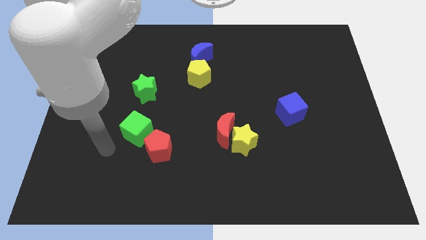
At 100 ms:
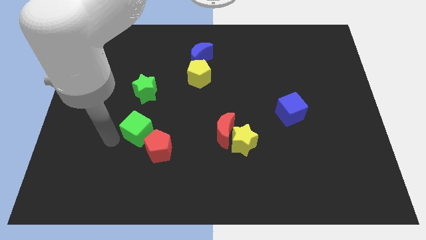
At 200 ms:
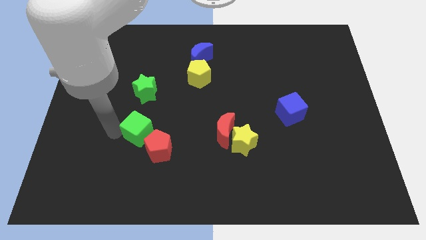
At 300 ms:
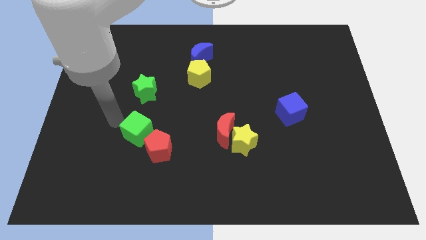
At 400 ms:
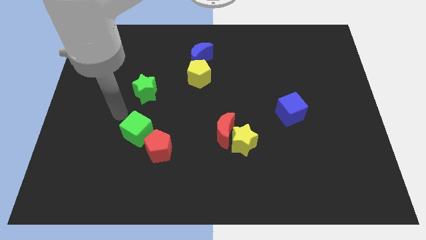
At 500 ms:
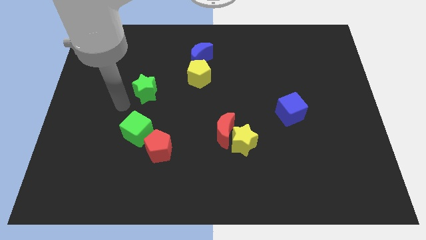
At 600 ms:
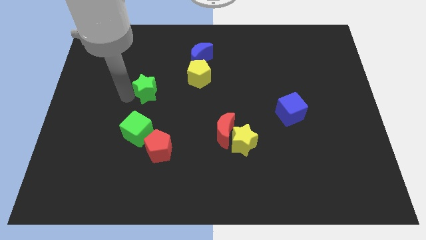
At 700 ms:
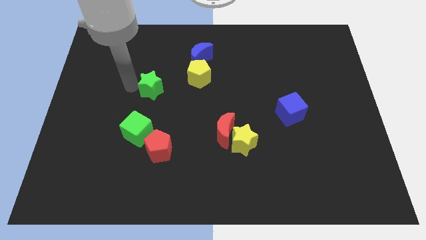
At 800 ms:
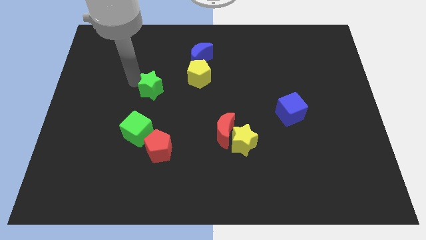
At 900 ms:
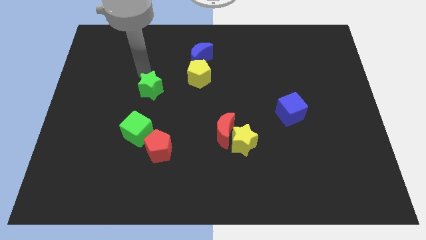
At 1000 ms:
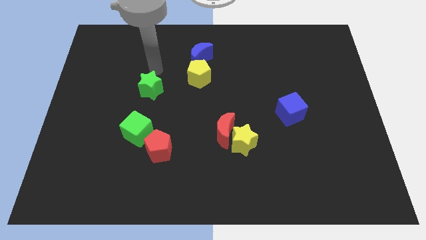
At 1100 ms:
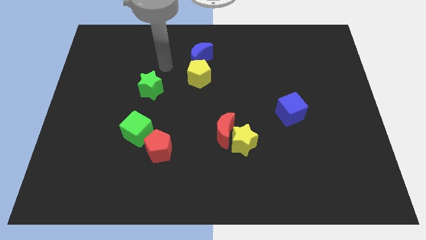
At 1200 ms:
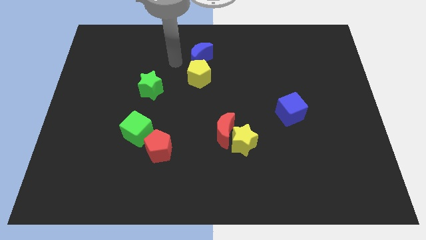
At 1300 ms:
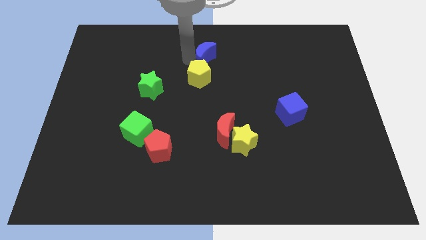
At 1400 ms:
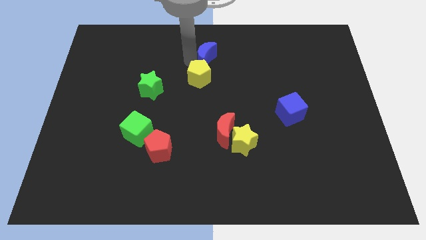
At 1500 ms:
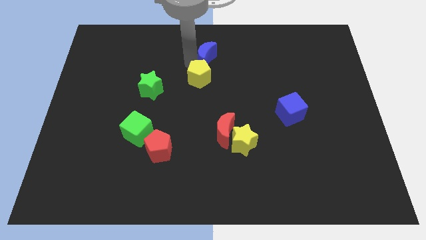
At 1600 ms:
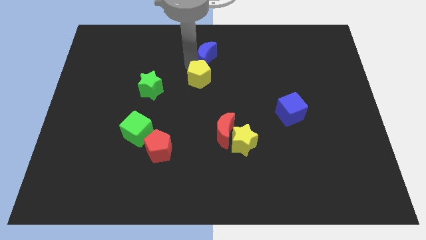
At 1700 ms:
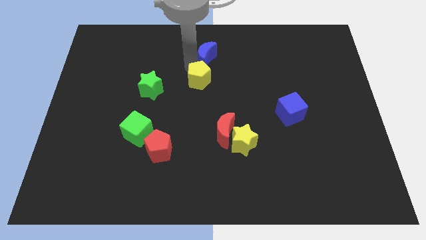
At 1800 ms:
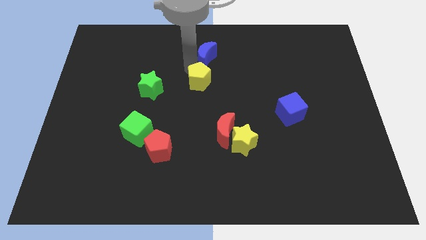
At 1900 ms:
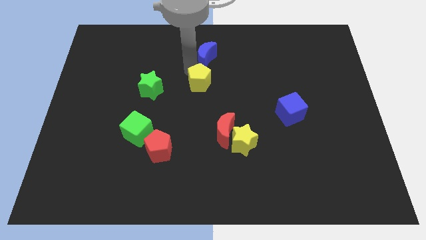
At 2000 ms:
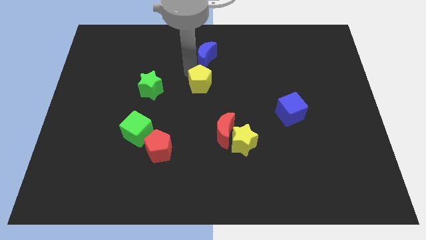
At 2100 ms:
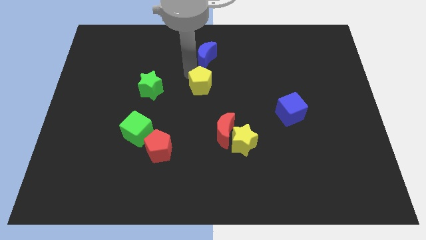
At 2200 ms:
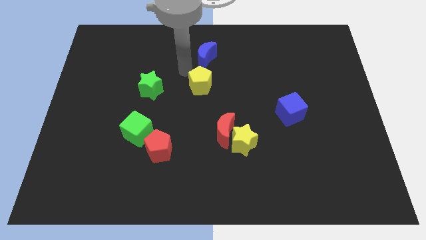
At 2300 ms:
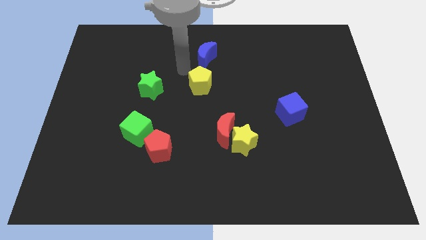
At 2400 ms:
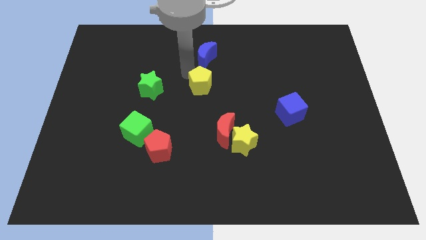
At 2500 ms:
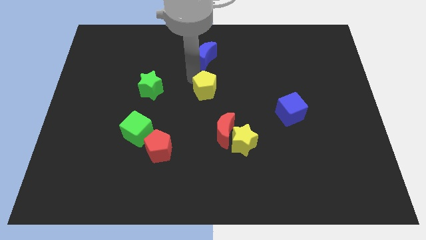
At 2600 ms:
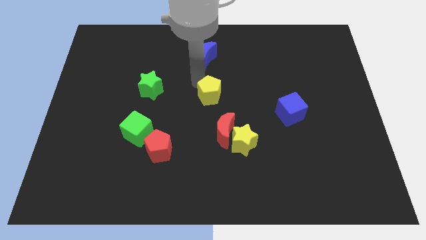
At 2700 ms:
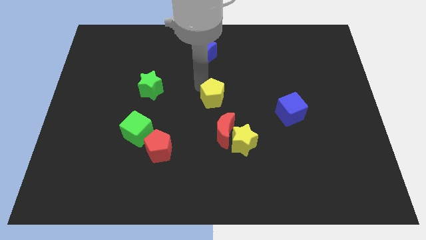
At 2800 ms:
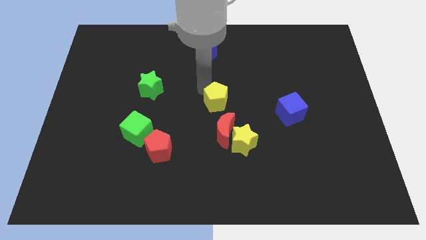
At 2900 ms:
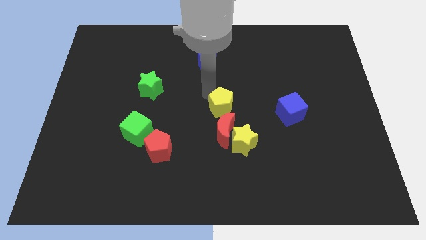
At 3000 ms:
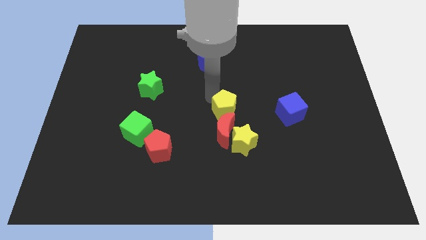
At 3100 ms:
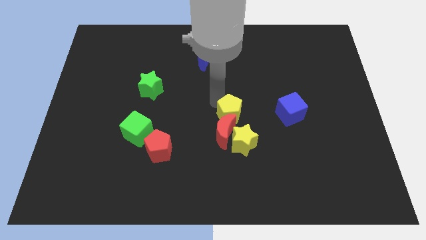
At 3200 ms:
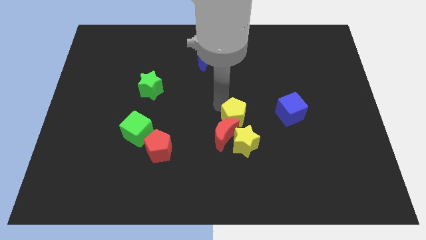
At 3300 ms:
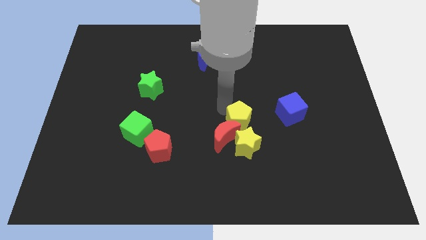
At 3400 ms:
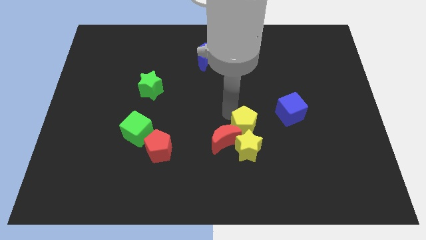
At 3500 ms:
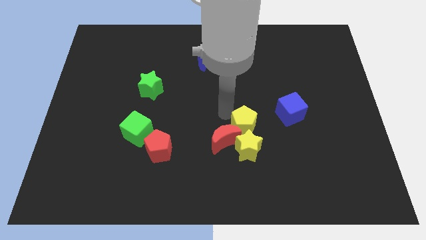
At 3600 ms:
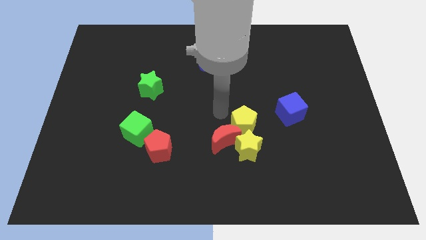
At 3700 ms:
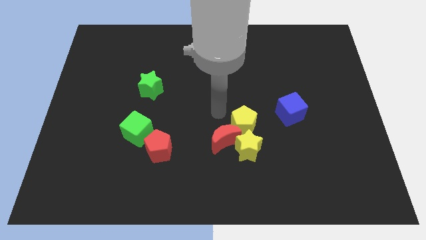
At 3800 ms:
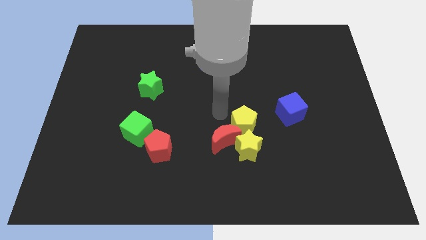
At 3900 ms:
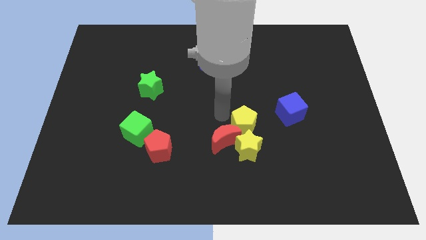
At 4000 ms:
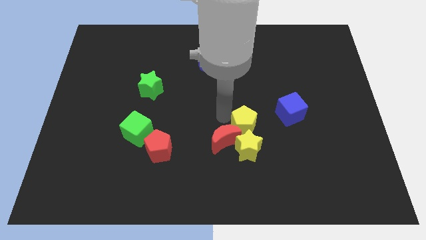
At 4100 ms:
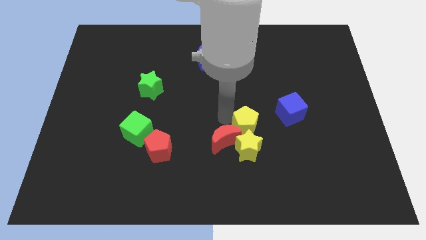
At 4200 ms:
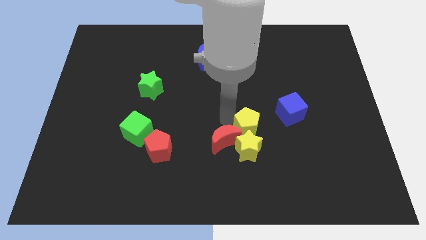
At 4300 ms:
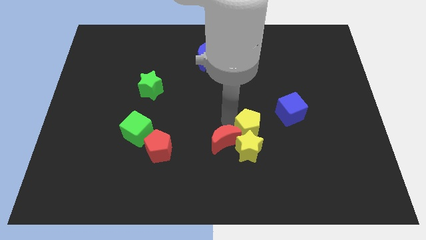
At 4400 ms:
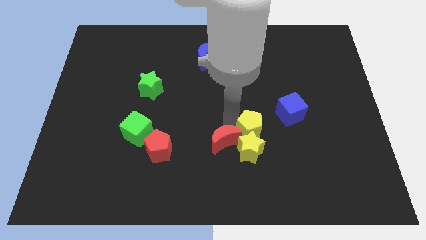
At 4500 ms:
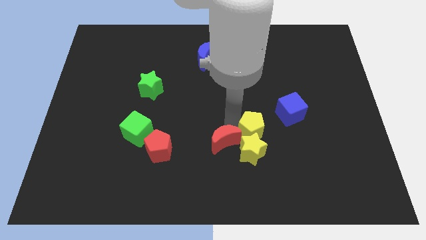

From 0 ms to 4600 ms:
push the yellow pentagon down and right

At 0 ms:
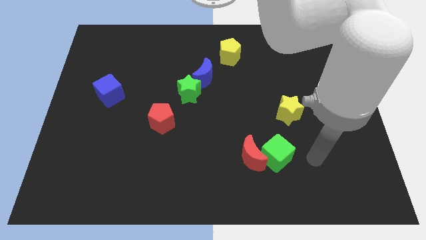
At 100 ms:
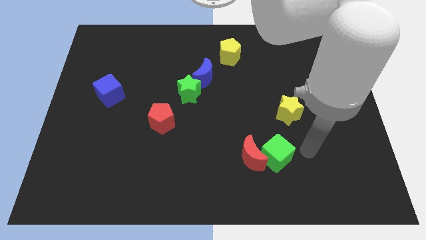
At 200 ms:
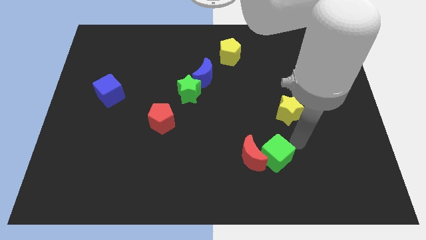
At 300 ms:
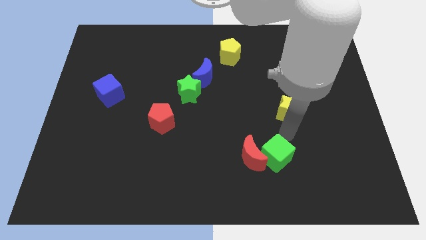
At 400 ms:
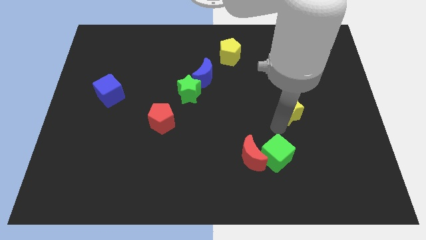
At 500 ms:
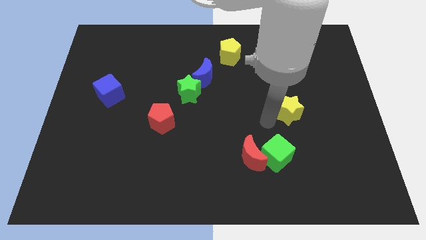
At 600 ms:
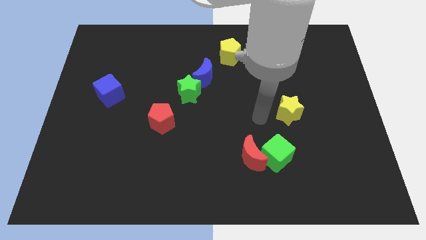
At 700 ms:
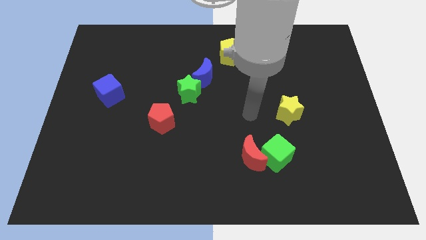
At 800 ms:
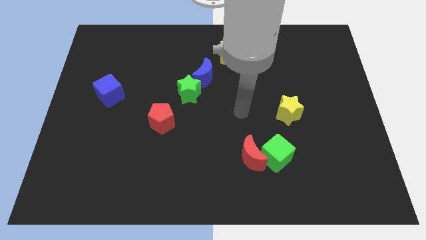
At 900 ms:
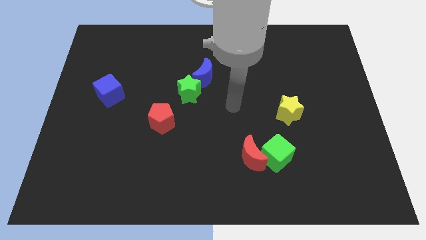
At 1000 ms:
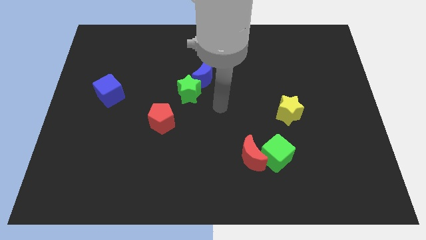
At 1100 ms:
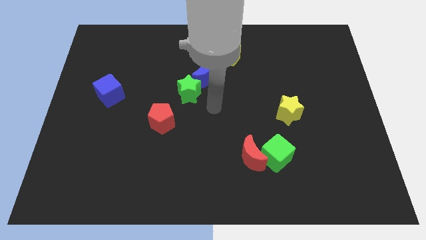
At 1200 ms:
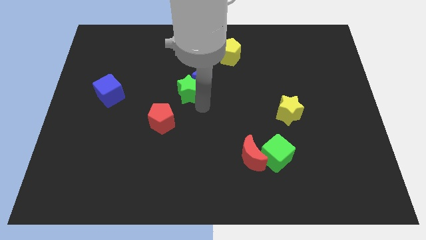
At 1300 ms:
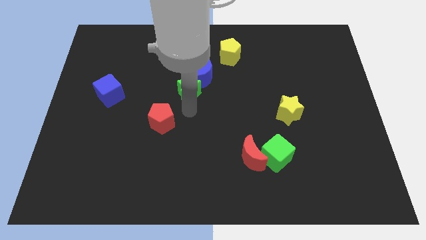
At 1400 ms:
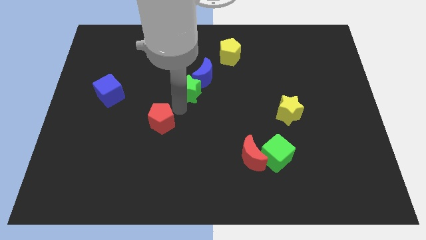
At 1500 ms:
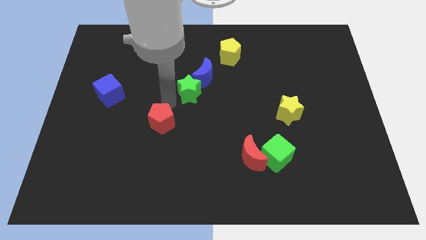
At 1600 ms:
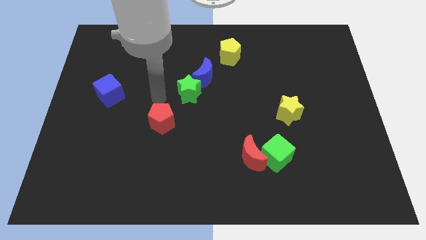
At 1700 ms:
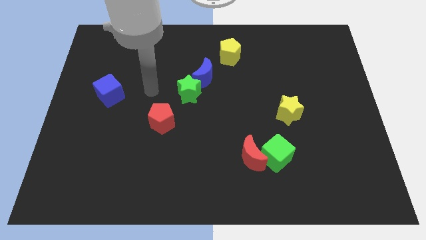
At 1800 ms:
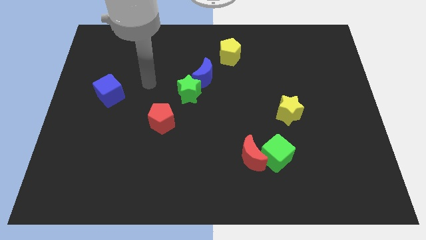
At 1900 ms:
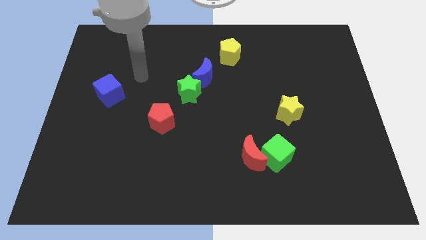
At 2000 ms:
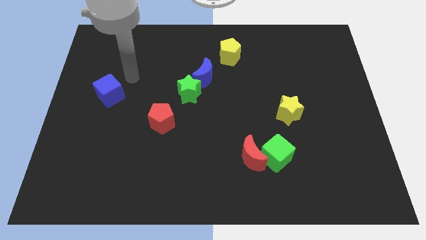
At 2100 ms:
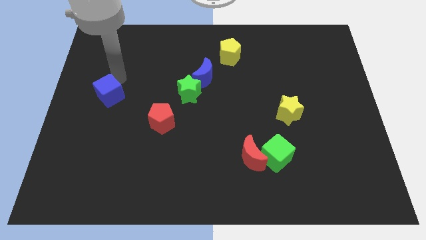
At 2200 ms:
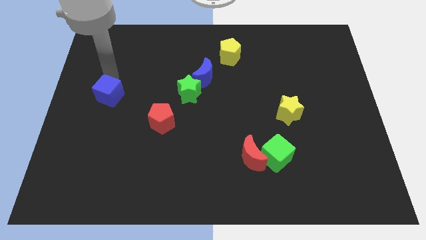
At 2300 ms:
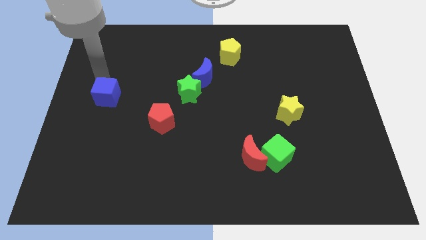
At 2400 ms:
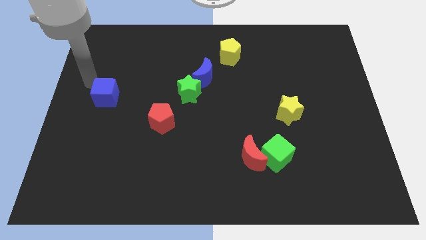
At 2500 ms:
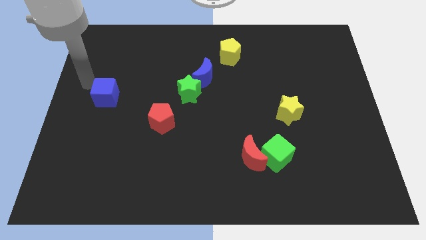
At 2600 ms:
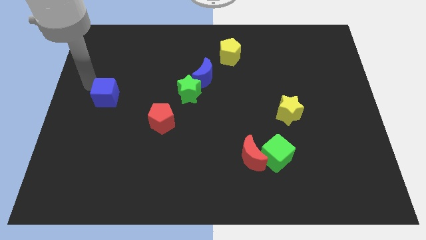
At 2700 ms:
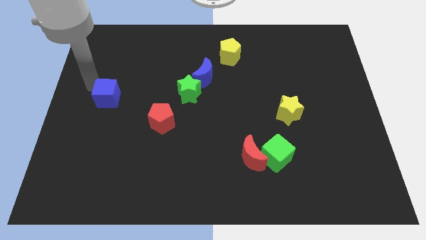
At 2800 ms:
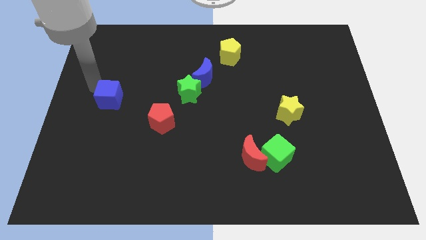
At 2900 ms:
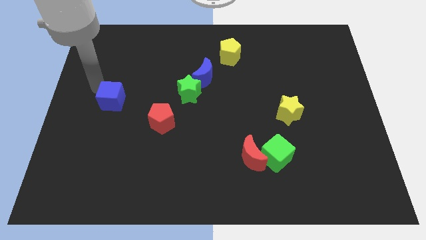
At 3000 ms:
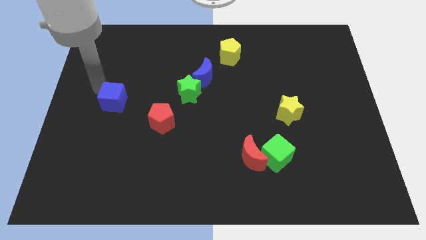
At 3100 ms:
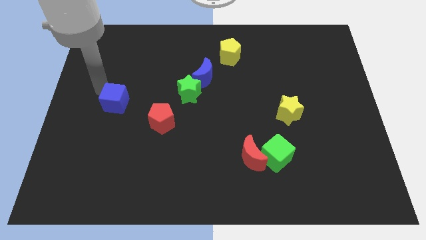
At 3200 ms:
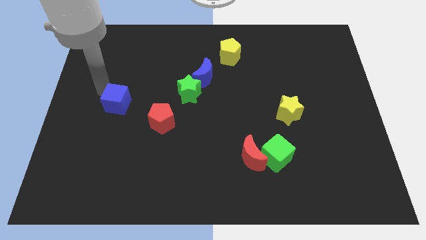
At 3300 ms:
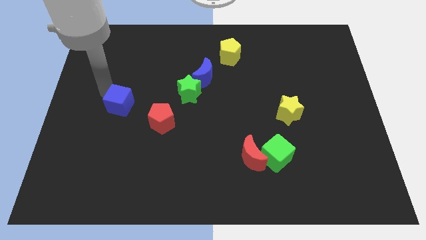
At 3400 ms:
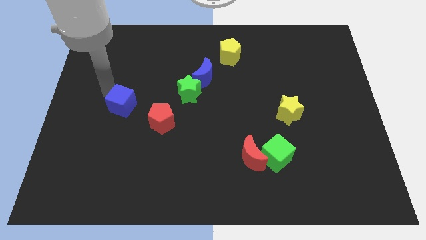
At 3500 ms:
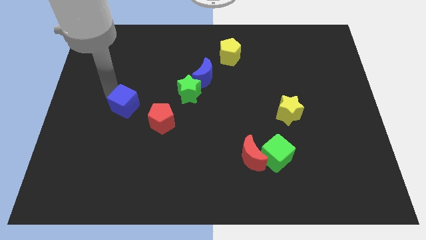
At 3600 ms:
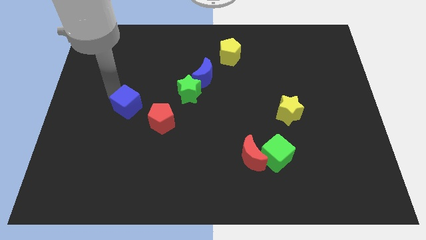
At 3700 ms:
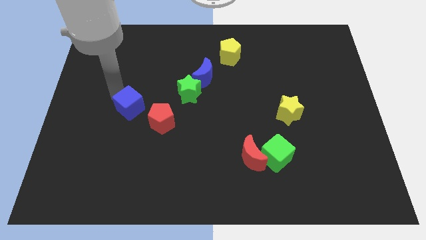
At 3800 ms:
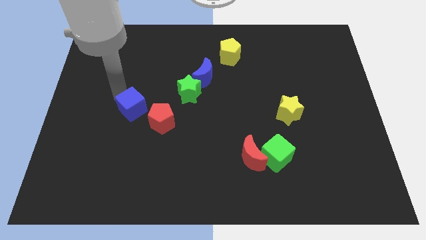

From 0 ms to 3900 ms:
push the blue cube downwards and right slightly
